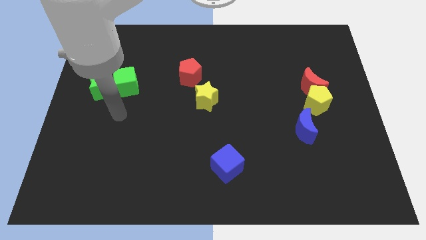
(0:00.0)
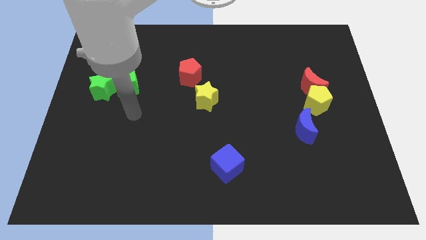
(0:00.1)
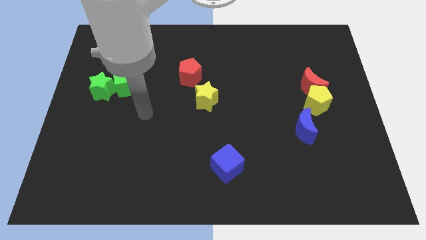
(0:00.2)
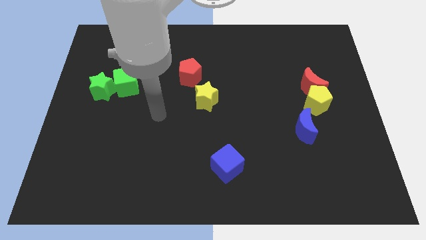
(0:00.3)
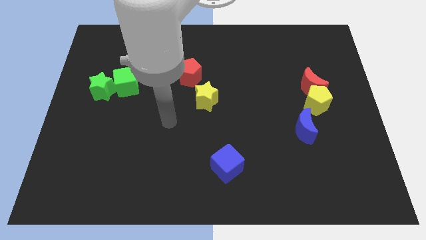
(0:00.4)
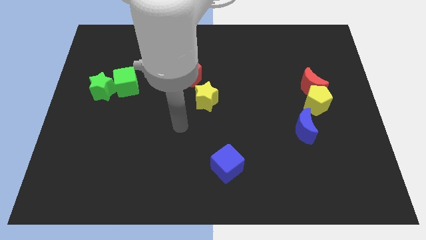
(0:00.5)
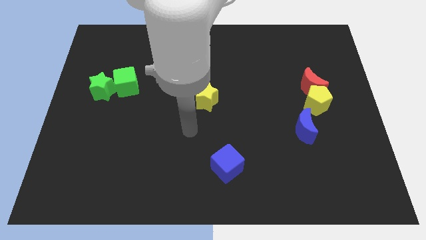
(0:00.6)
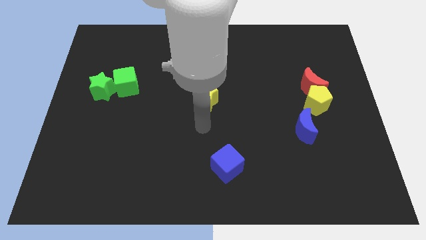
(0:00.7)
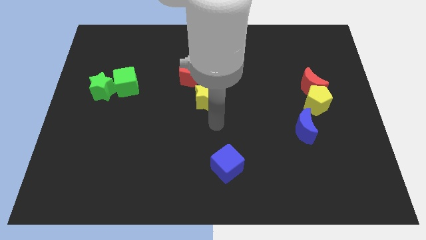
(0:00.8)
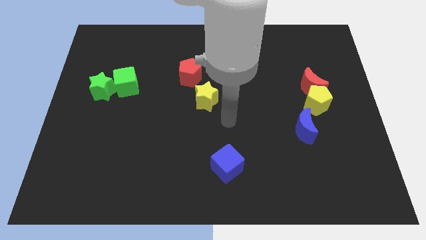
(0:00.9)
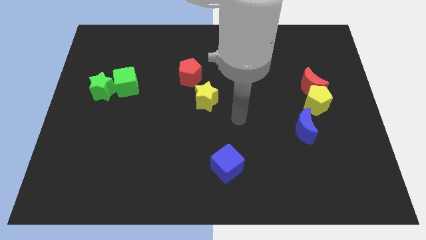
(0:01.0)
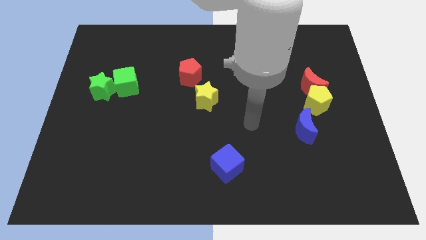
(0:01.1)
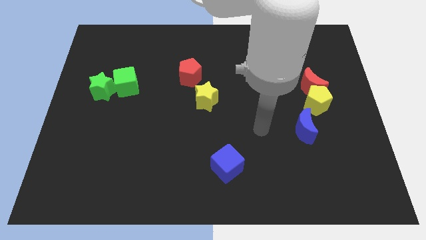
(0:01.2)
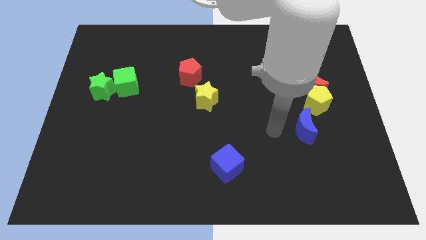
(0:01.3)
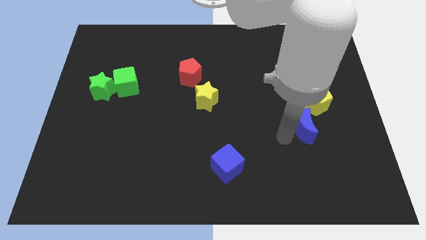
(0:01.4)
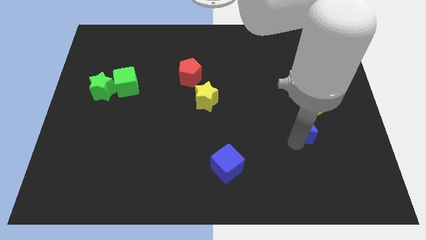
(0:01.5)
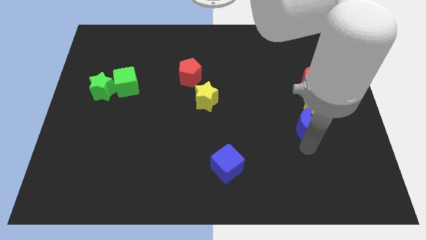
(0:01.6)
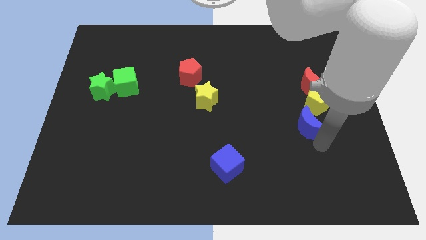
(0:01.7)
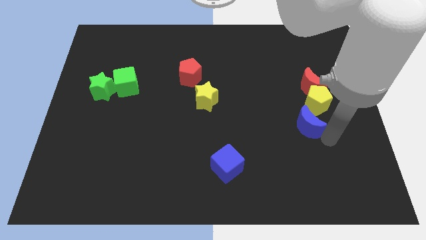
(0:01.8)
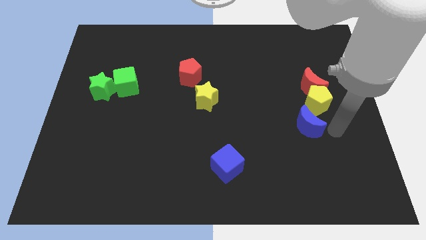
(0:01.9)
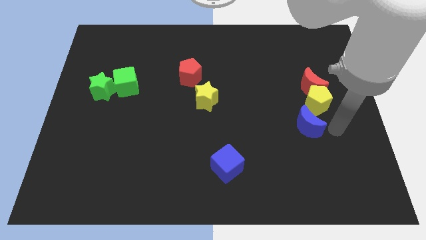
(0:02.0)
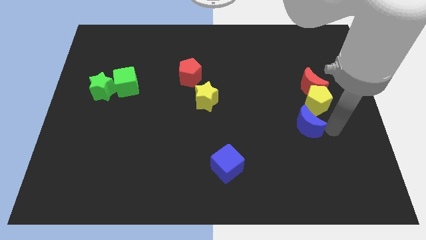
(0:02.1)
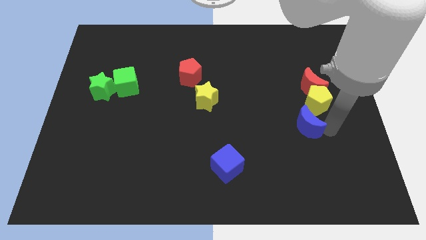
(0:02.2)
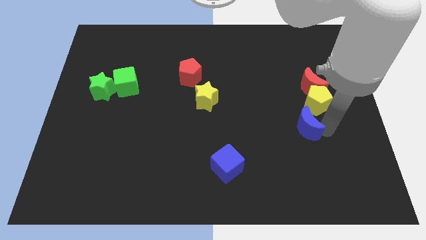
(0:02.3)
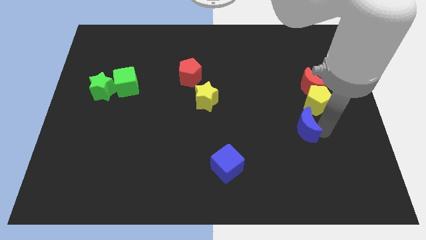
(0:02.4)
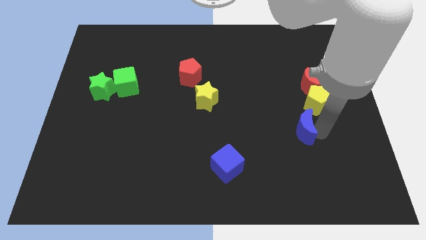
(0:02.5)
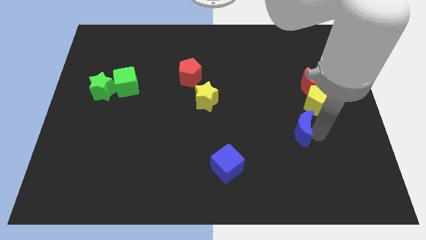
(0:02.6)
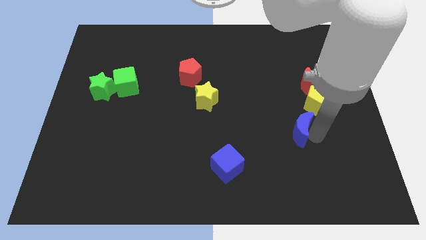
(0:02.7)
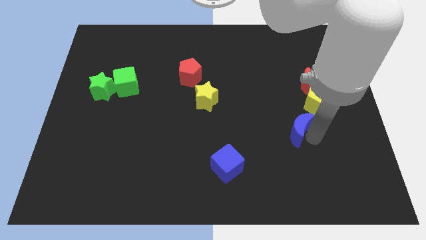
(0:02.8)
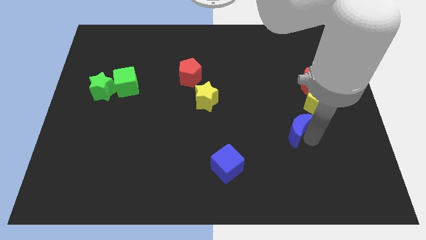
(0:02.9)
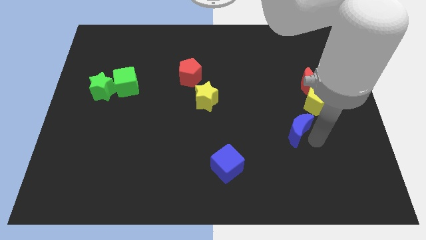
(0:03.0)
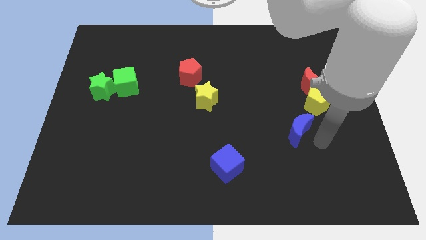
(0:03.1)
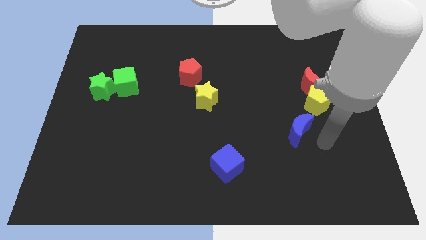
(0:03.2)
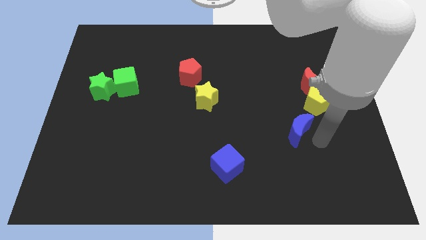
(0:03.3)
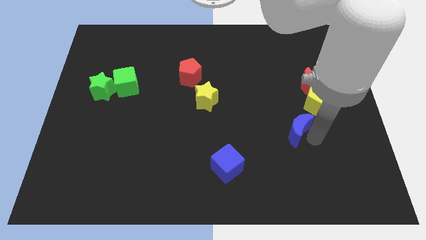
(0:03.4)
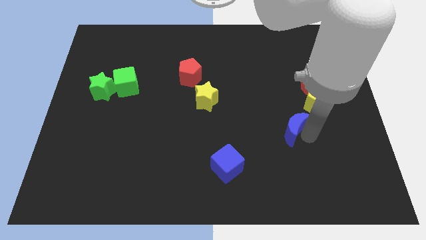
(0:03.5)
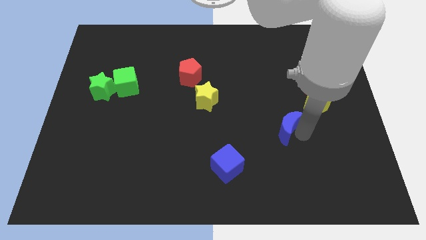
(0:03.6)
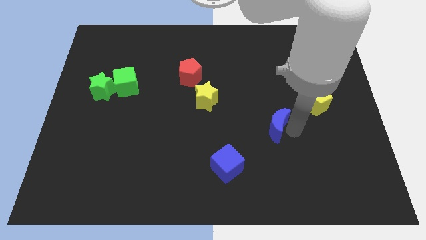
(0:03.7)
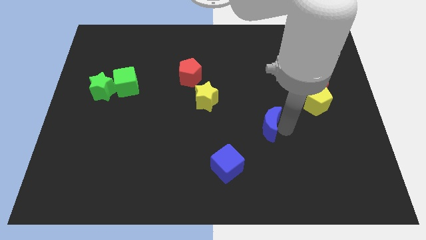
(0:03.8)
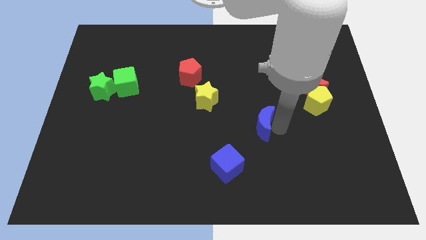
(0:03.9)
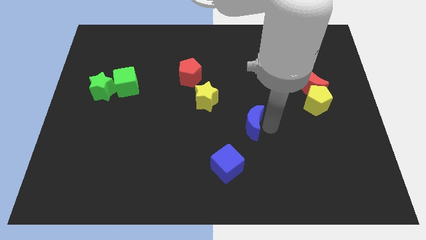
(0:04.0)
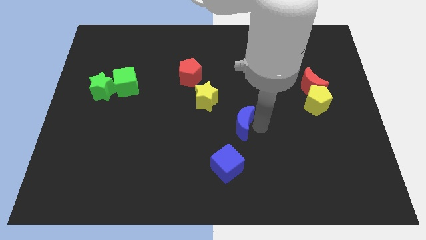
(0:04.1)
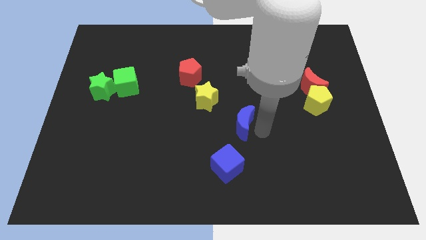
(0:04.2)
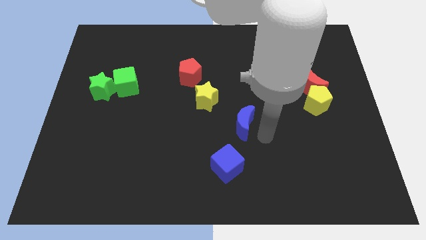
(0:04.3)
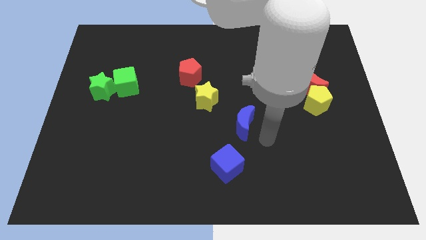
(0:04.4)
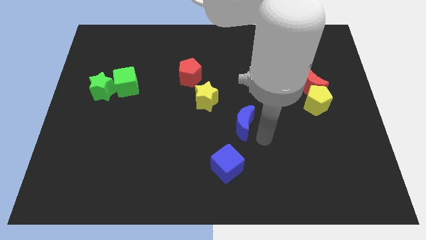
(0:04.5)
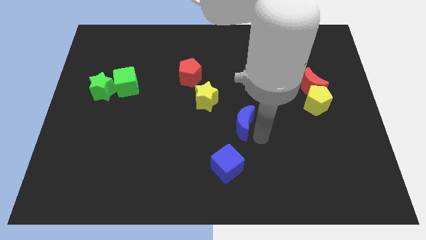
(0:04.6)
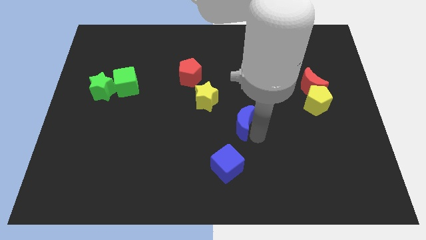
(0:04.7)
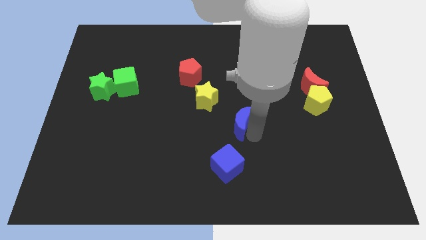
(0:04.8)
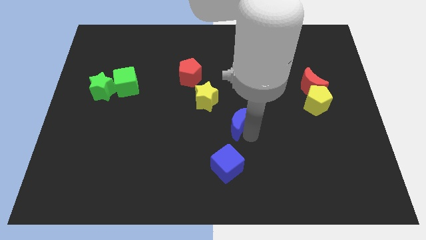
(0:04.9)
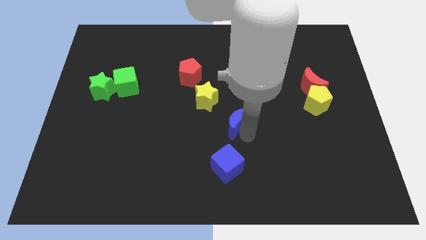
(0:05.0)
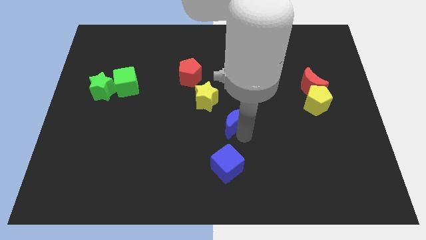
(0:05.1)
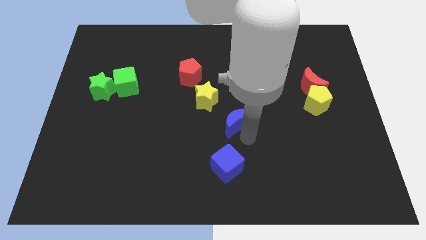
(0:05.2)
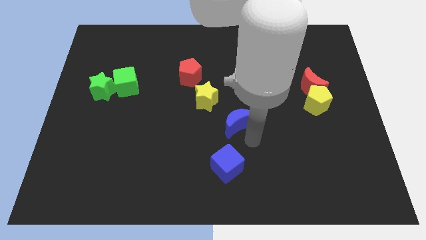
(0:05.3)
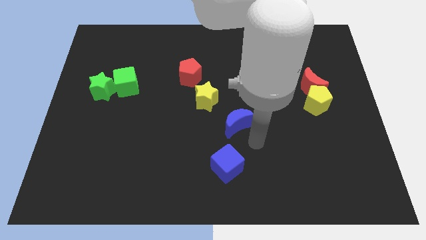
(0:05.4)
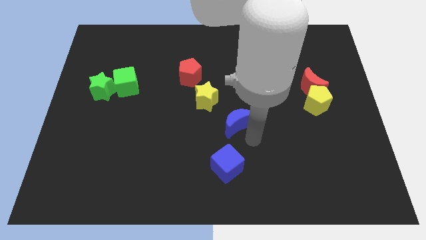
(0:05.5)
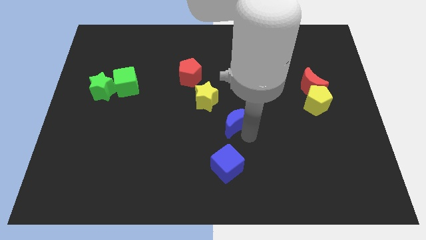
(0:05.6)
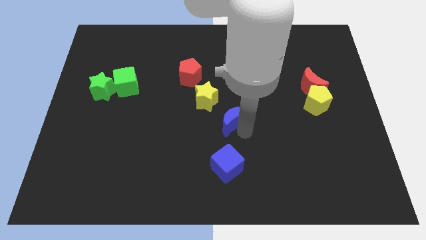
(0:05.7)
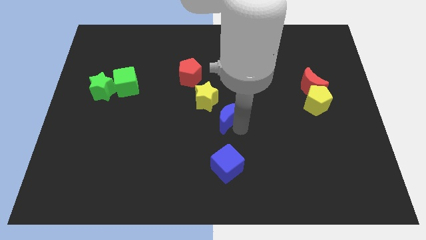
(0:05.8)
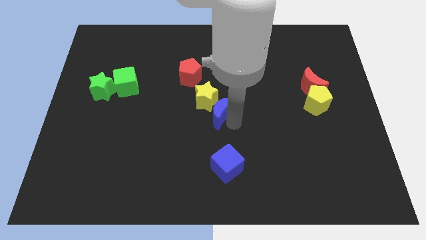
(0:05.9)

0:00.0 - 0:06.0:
slide the blue moon next to the yellow star
